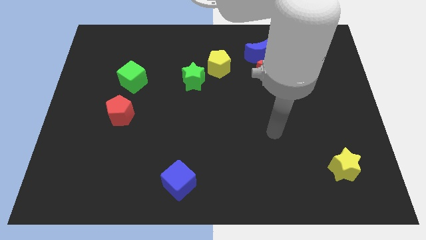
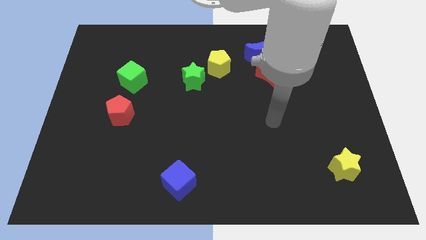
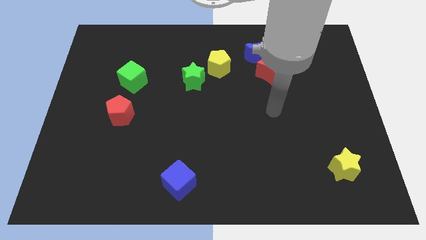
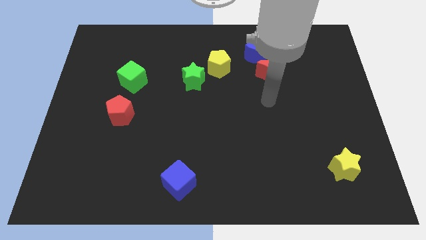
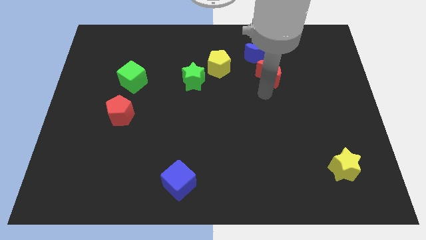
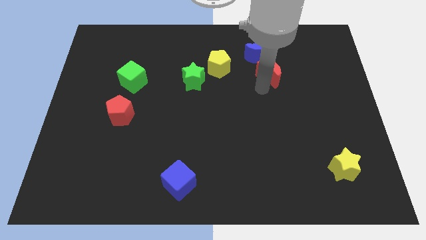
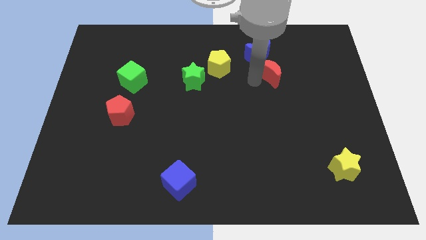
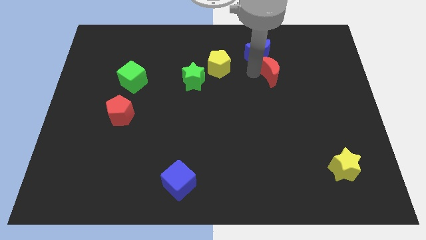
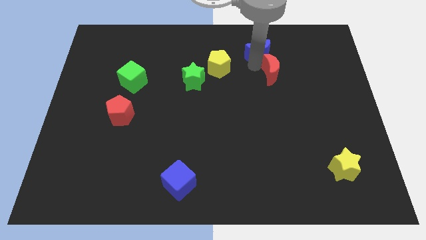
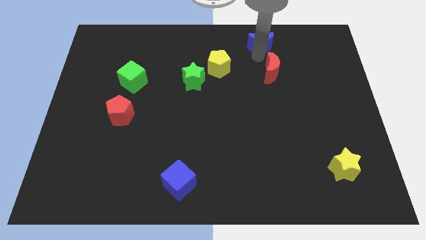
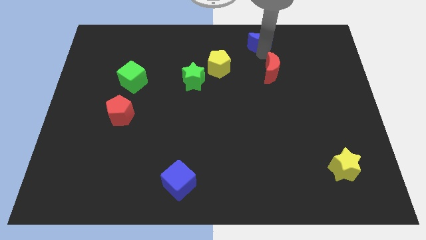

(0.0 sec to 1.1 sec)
separate the red moon from the blue moon

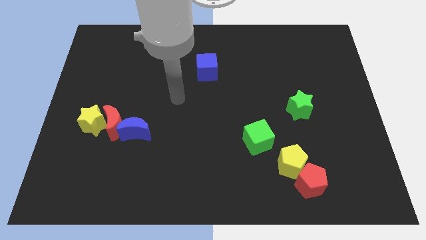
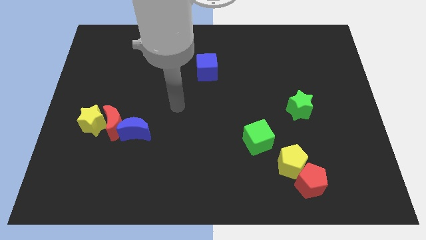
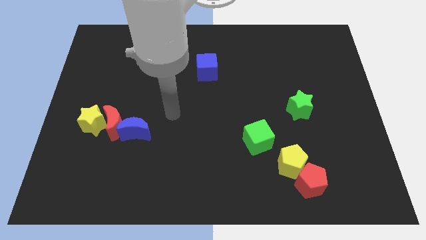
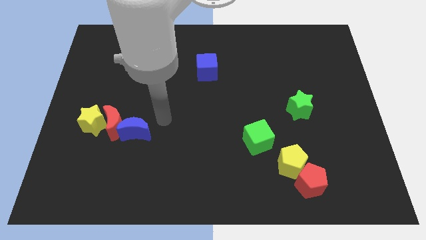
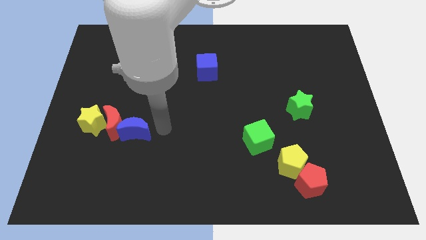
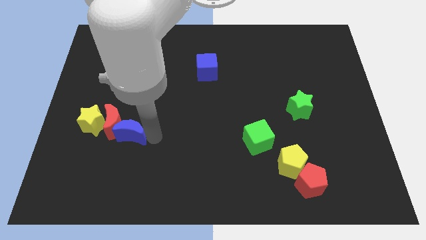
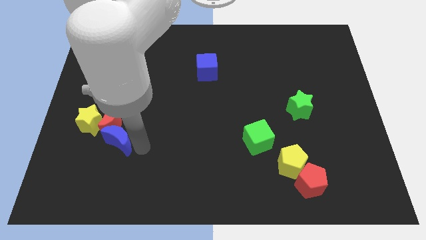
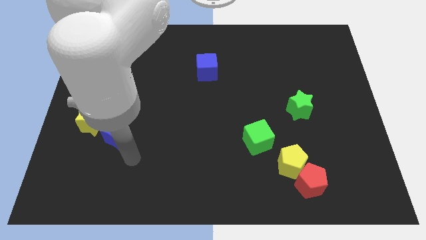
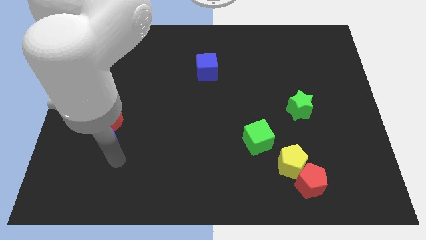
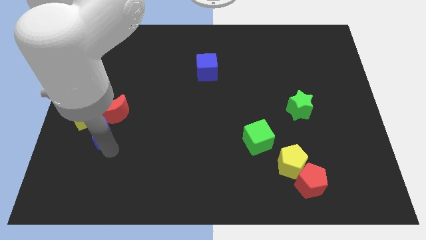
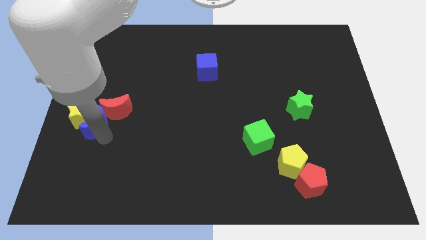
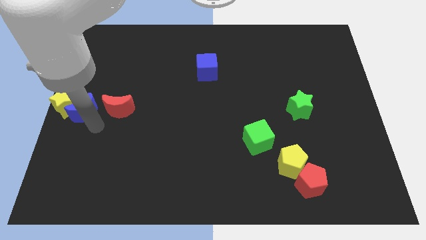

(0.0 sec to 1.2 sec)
separate the red moon from the yellow star and blue moon

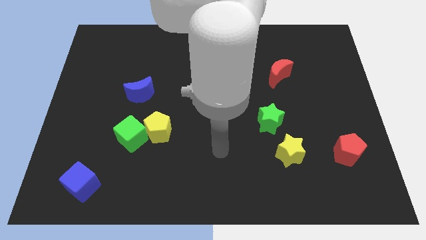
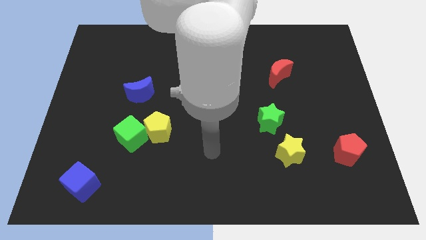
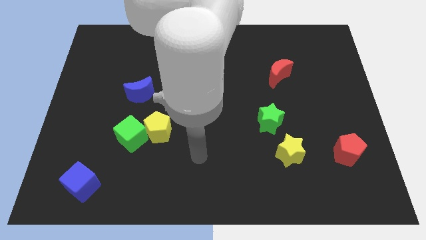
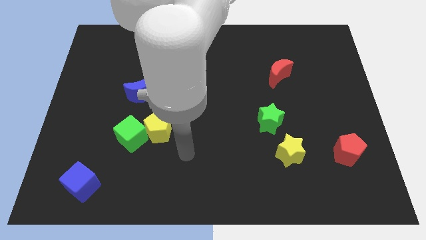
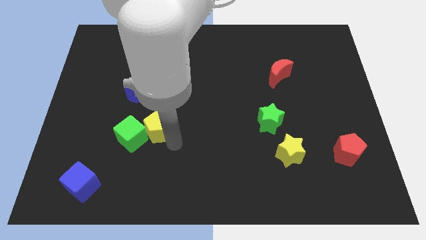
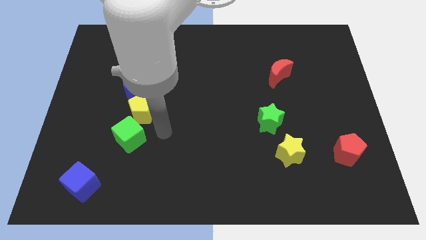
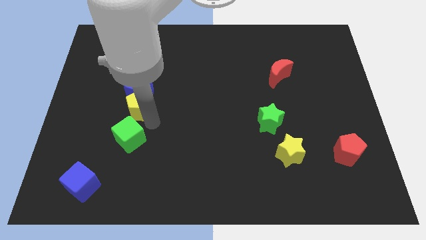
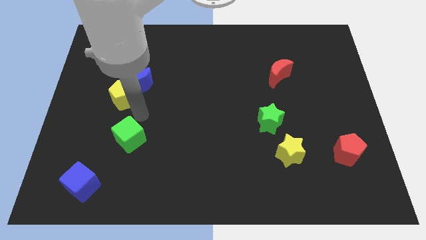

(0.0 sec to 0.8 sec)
pull the green cube apart from the yellow pentagon

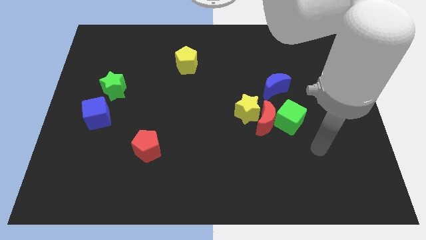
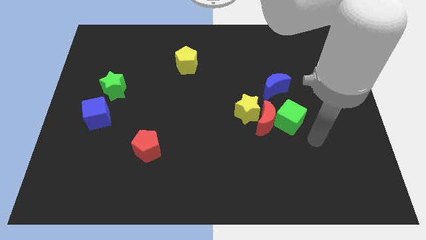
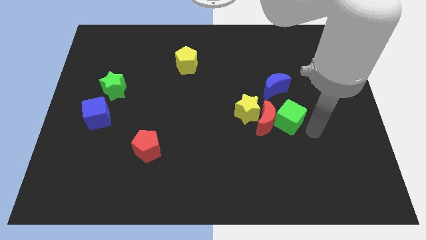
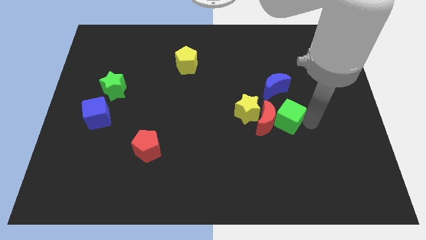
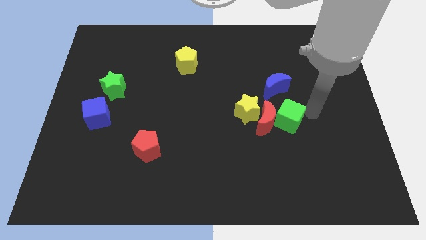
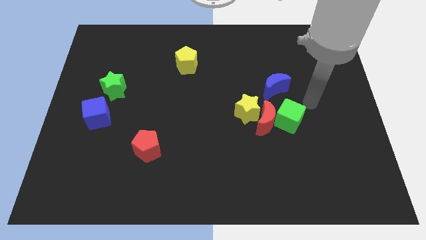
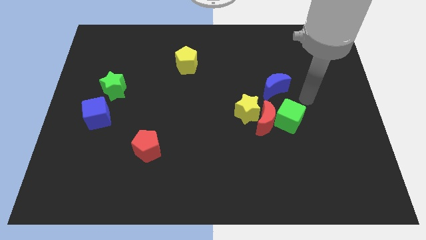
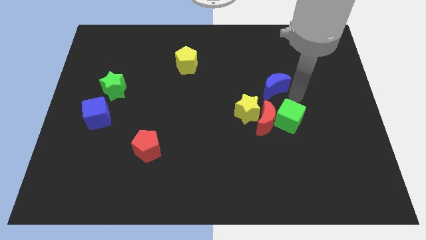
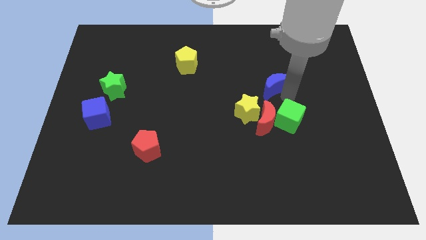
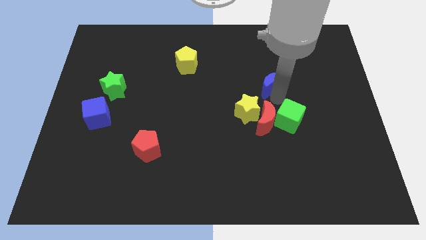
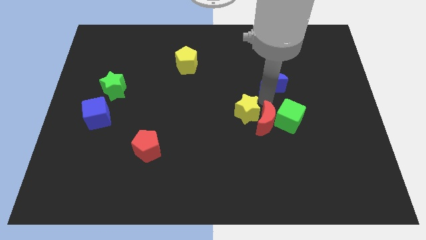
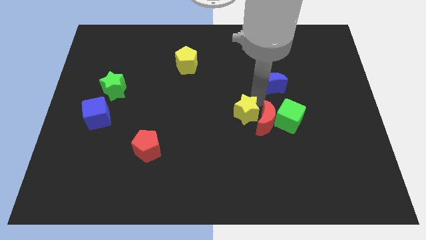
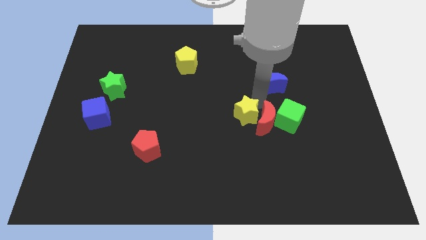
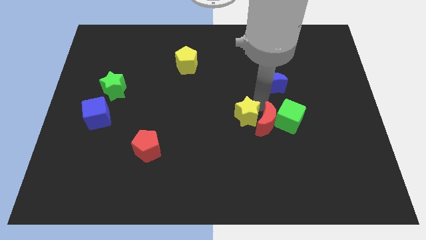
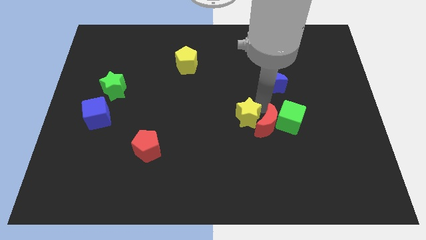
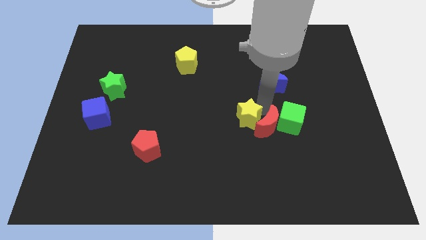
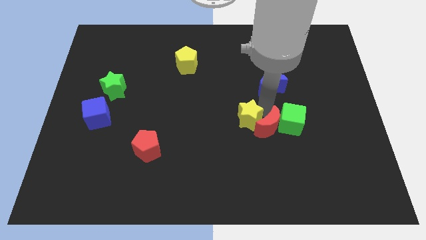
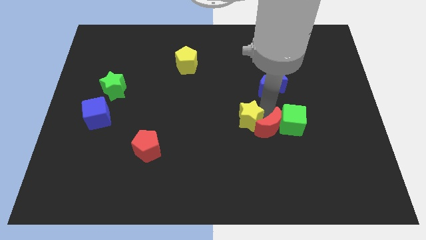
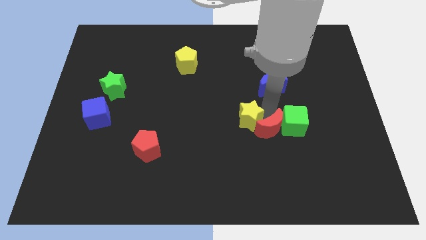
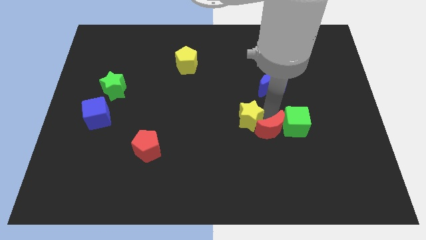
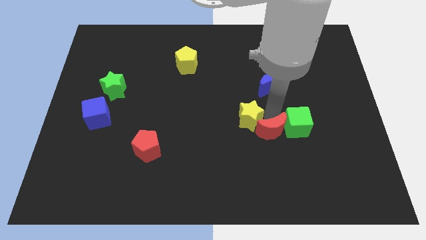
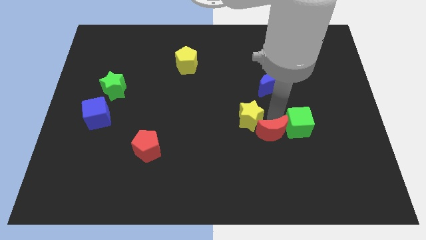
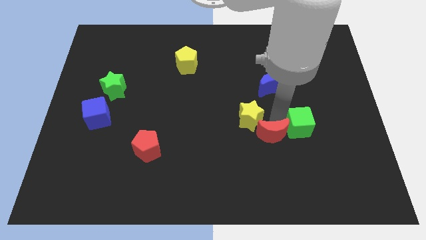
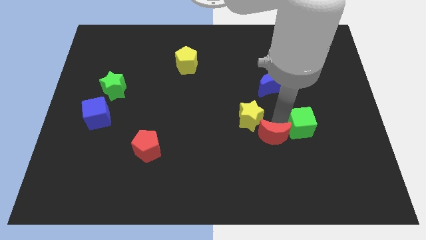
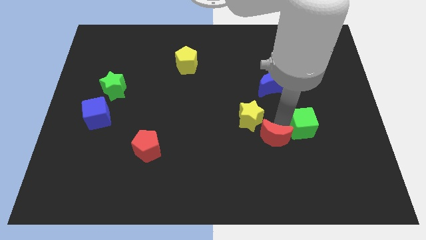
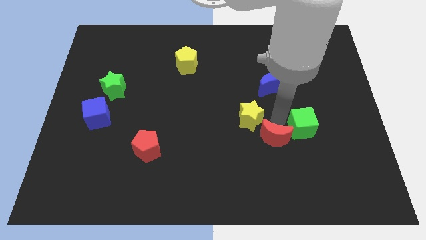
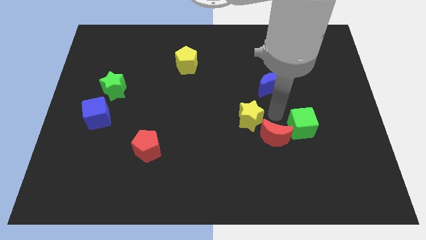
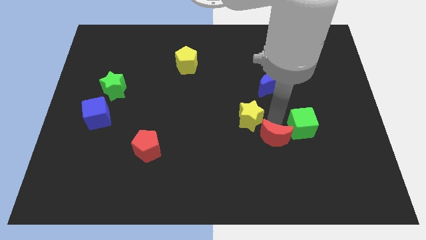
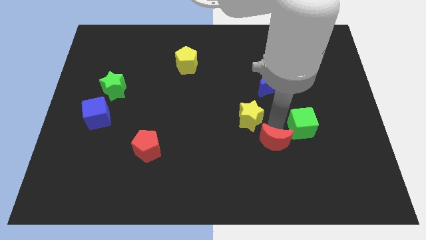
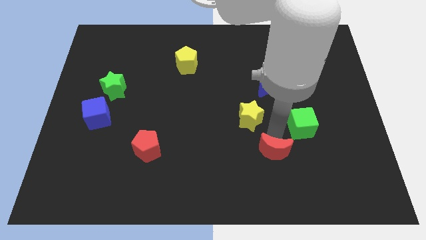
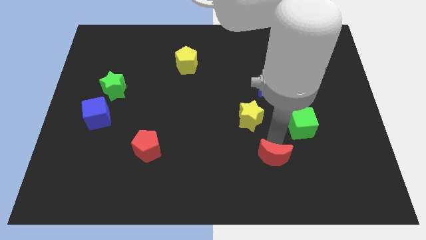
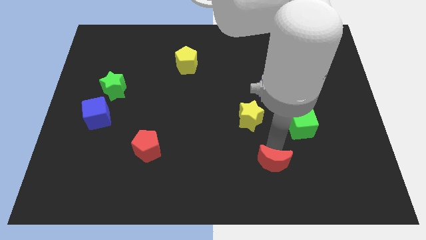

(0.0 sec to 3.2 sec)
pull the red moon apart from the yellow star and green cube

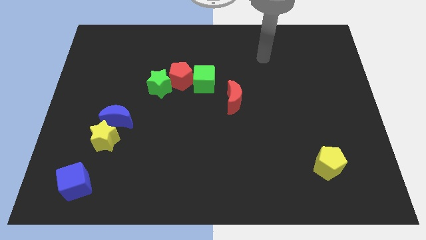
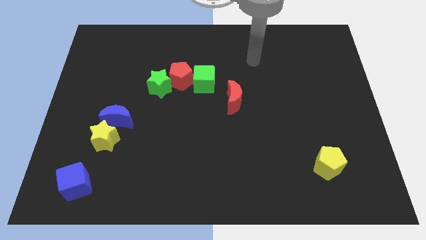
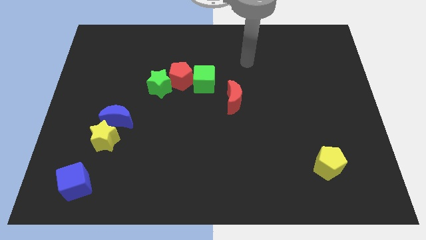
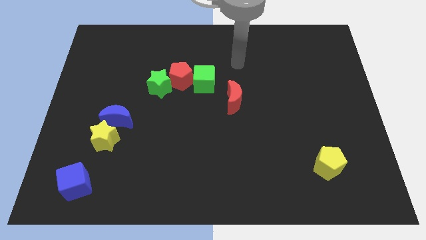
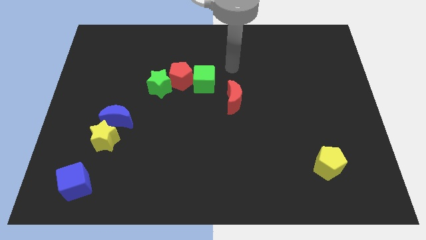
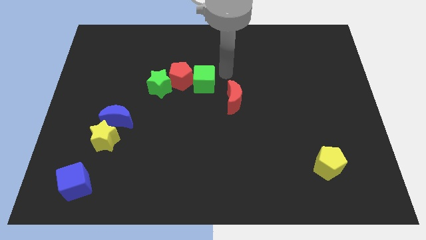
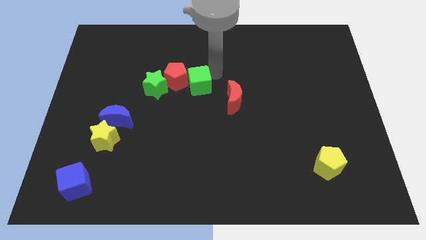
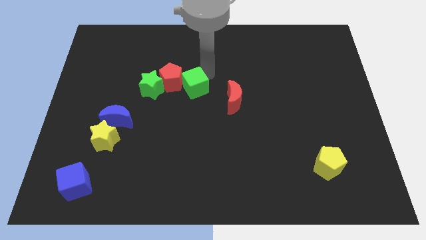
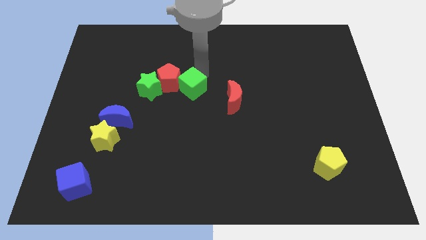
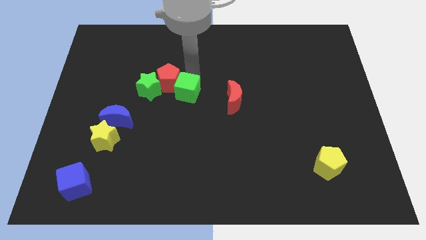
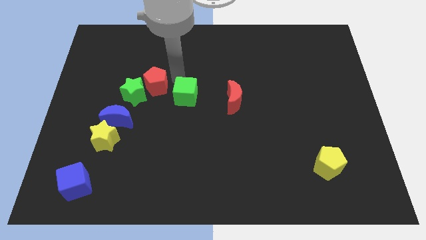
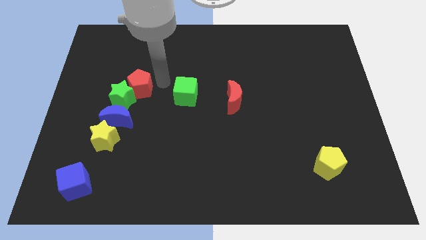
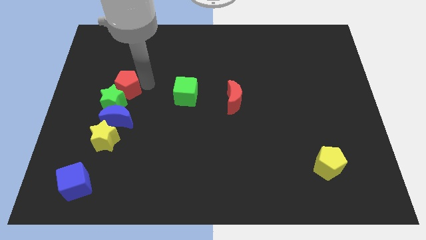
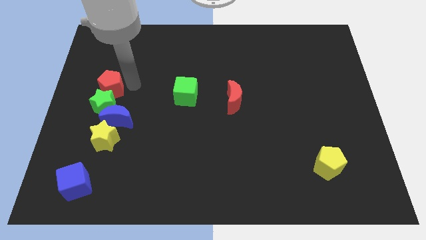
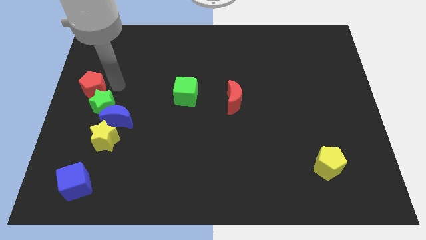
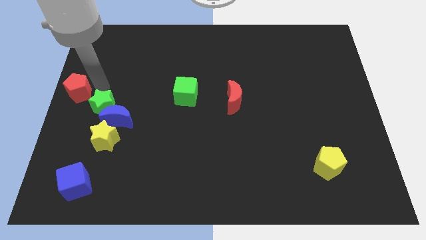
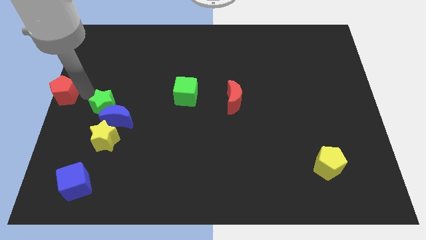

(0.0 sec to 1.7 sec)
move the green star away from the red pentagon

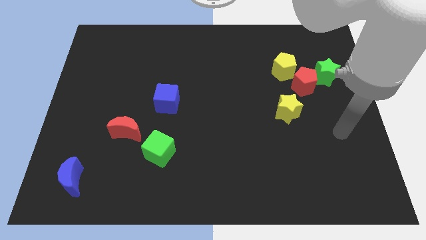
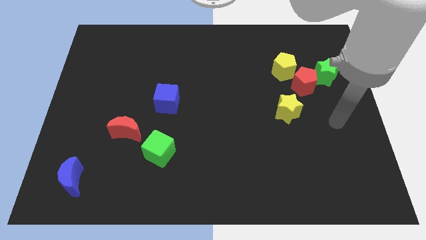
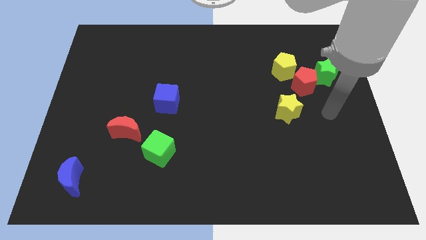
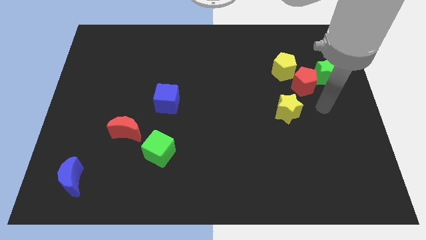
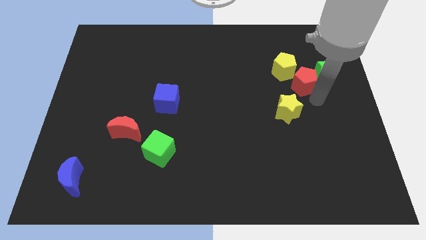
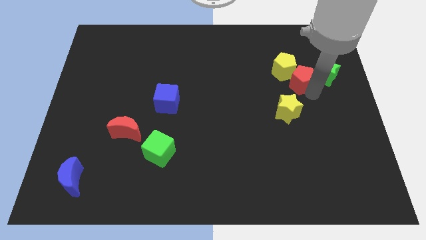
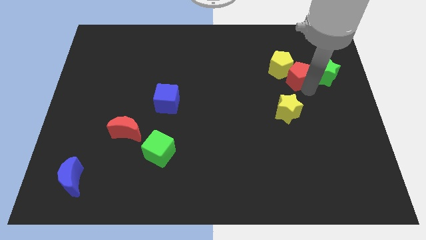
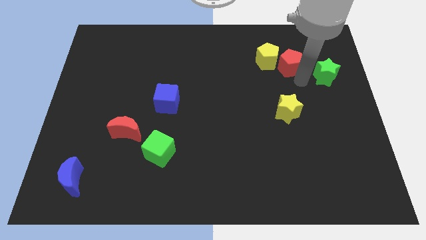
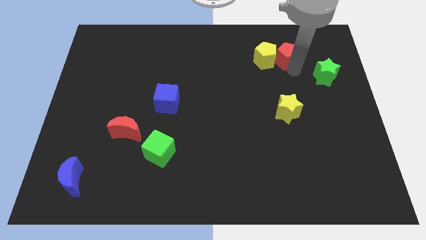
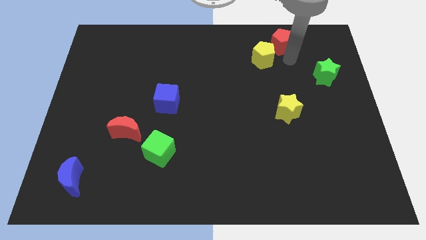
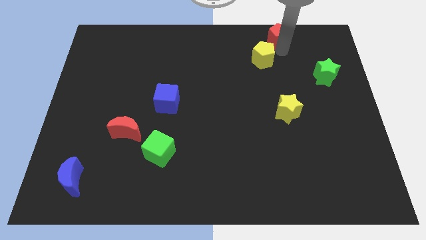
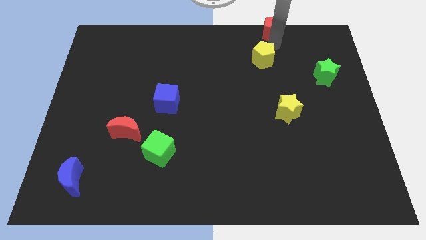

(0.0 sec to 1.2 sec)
separate the yellow pentagon from the red pentagon
